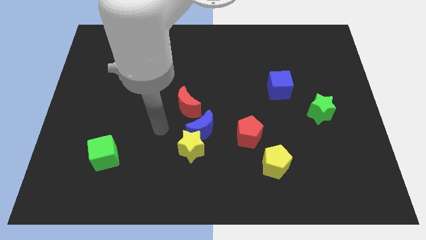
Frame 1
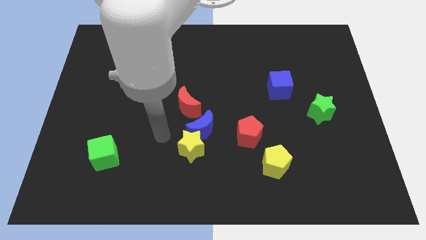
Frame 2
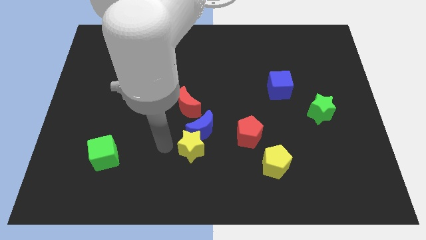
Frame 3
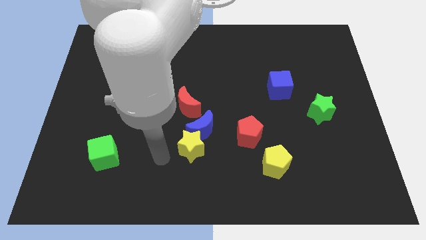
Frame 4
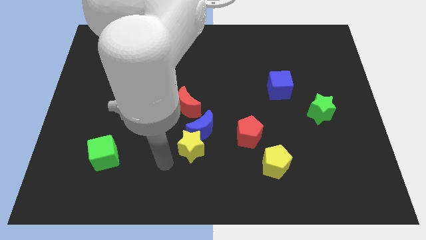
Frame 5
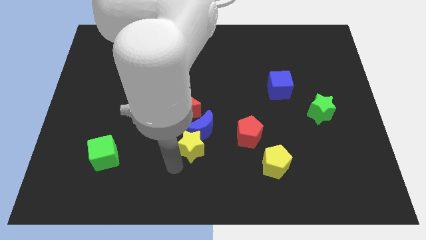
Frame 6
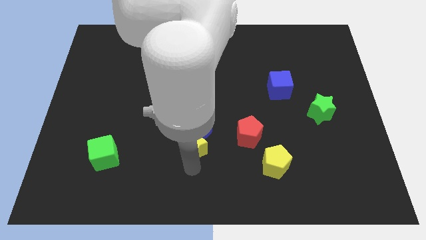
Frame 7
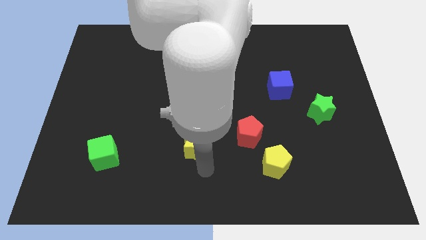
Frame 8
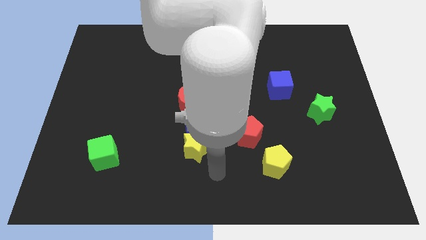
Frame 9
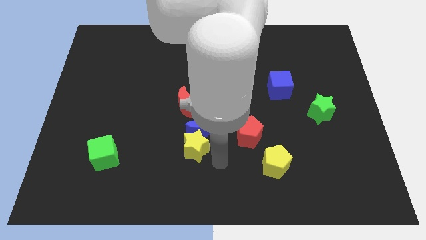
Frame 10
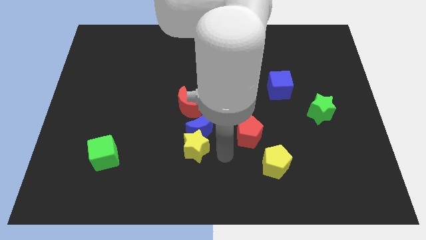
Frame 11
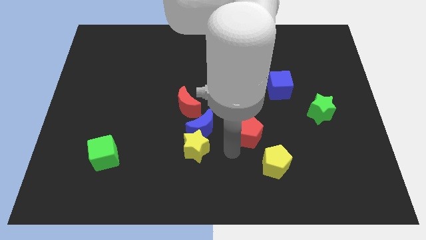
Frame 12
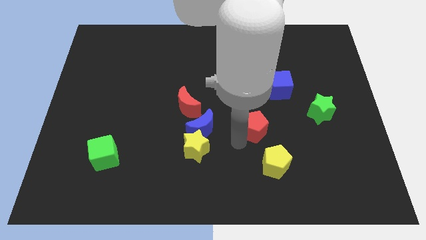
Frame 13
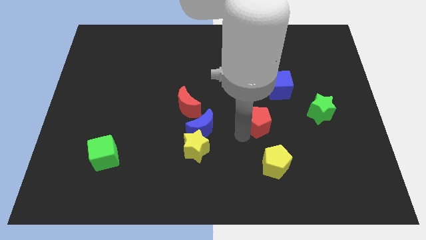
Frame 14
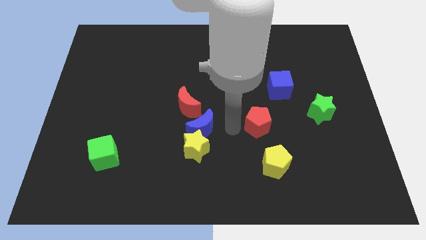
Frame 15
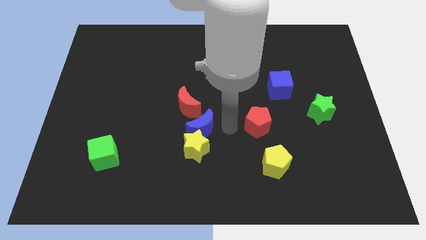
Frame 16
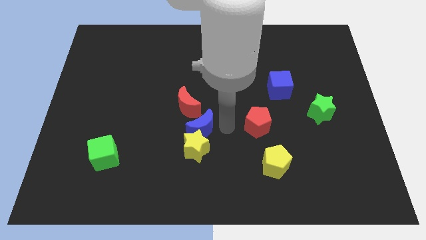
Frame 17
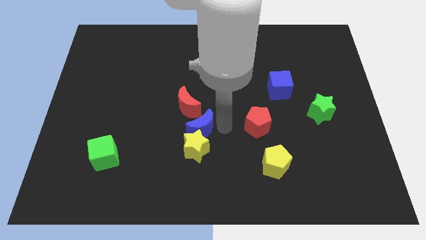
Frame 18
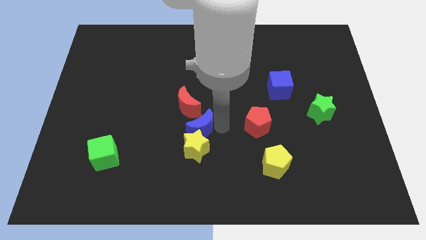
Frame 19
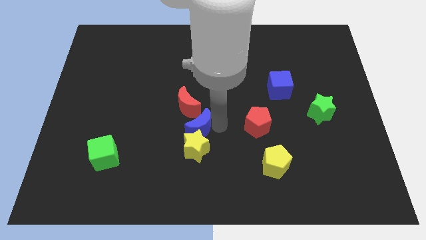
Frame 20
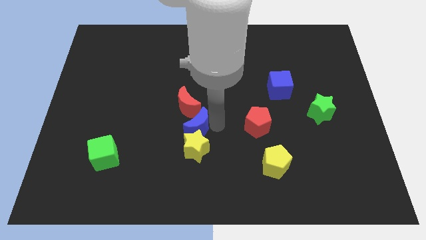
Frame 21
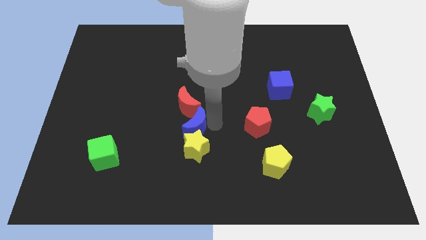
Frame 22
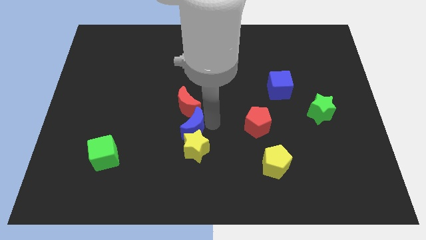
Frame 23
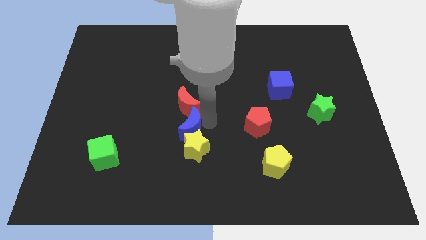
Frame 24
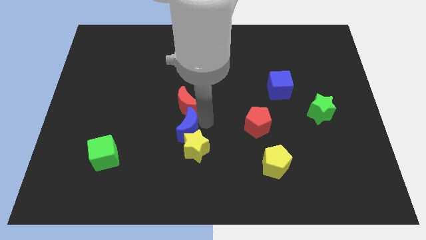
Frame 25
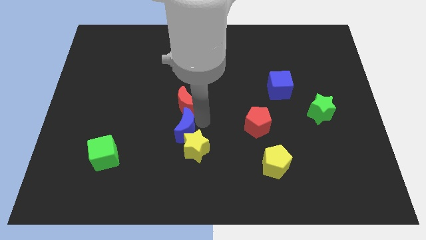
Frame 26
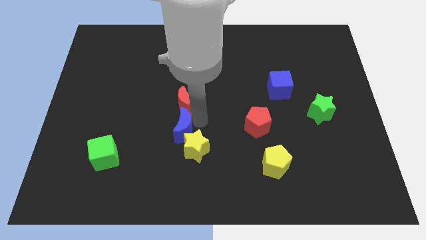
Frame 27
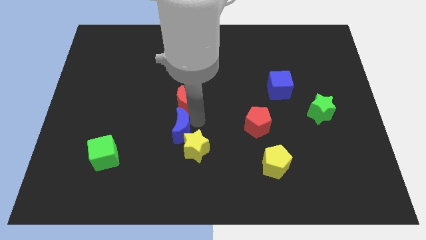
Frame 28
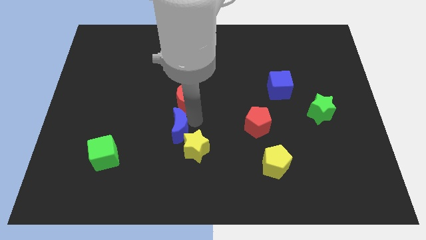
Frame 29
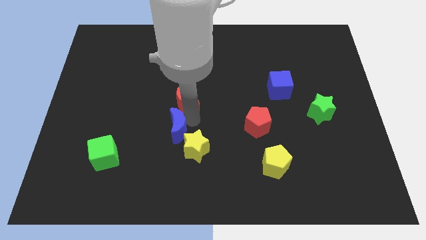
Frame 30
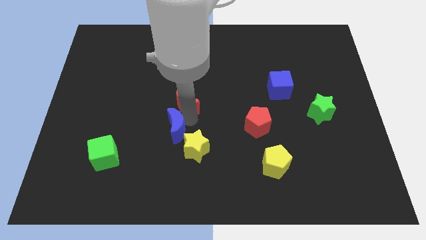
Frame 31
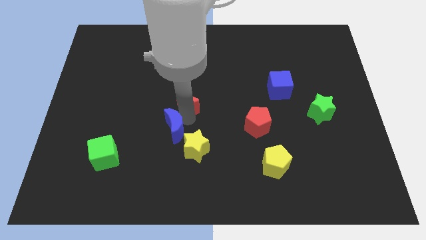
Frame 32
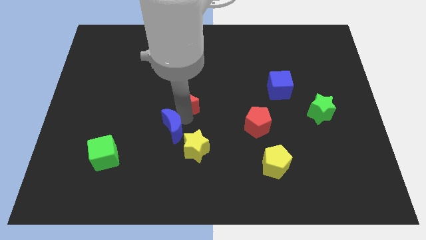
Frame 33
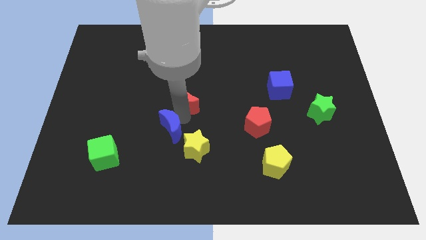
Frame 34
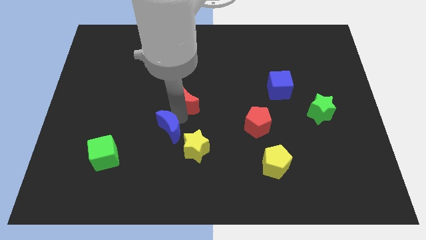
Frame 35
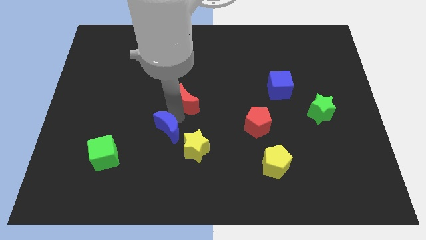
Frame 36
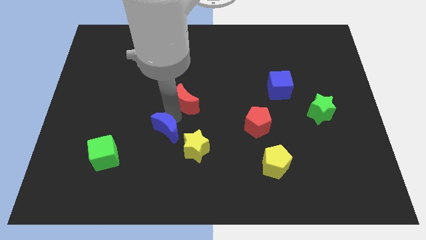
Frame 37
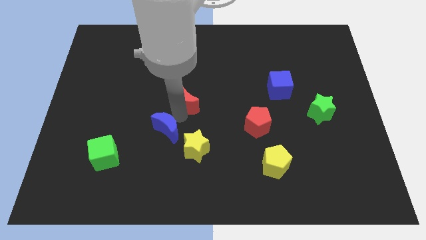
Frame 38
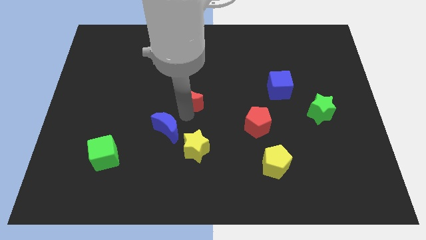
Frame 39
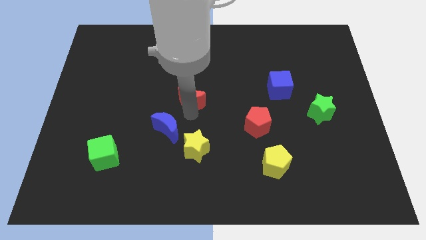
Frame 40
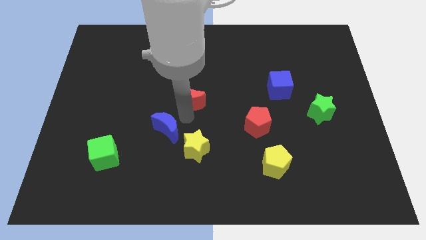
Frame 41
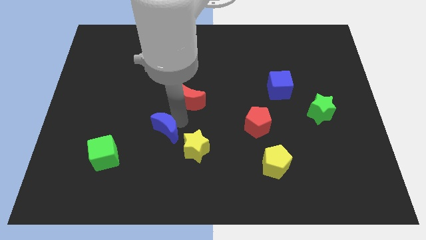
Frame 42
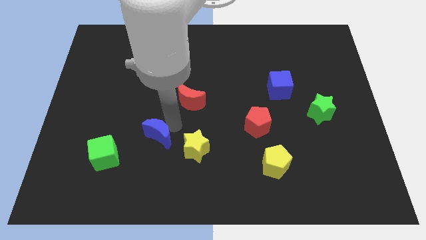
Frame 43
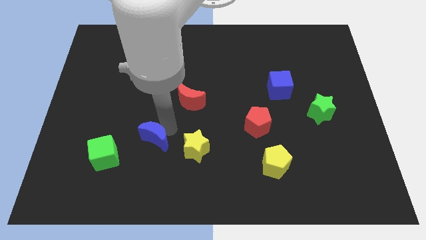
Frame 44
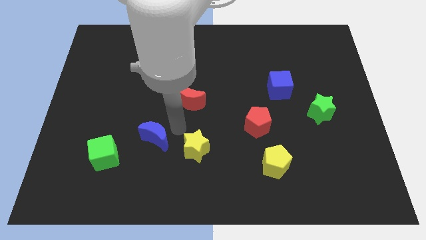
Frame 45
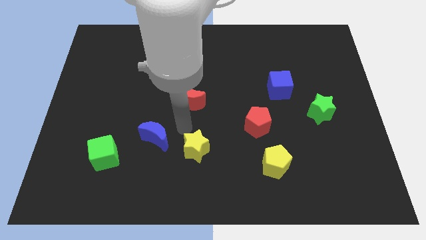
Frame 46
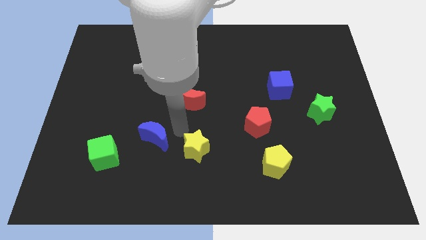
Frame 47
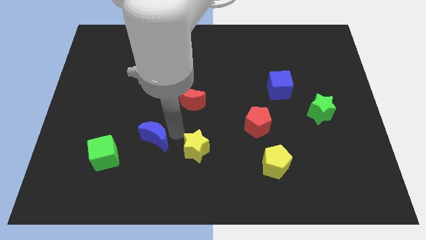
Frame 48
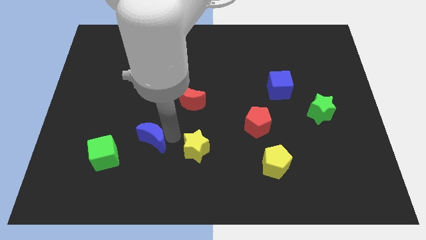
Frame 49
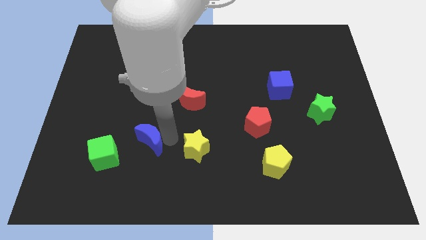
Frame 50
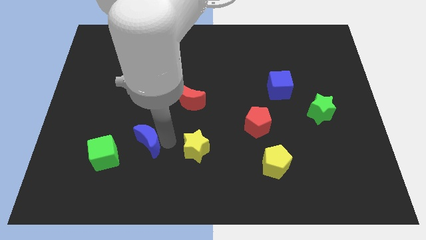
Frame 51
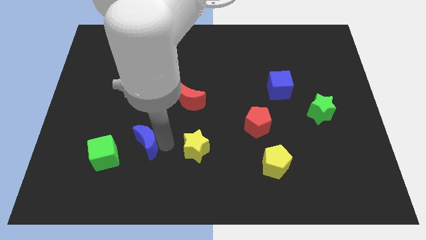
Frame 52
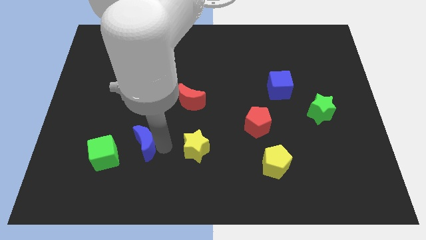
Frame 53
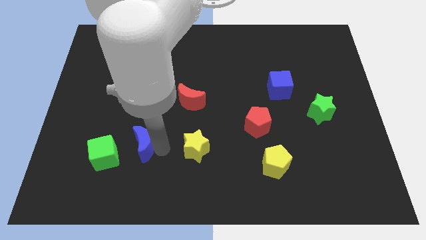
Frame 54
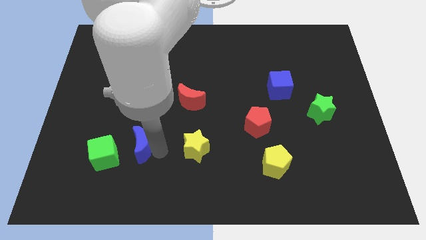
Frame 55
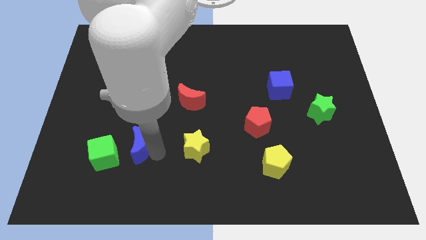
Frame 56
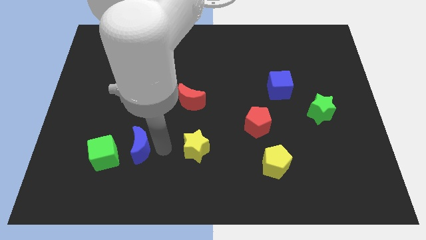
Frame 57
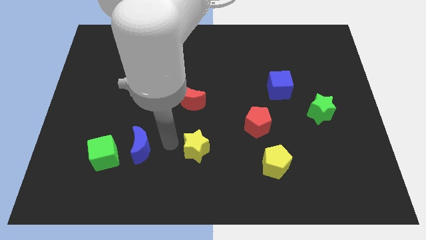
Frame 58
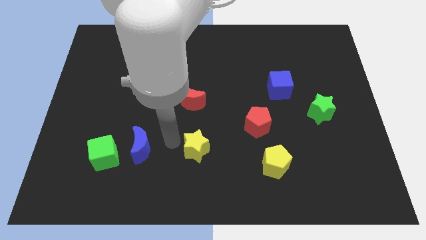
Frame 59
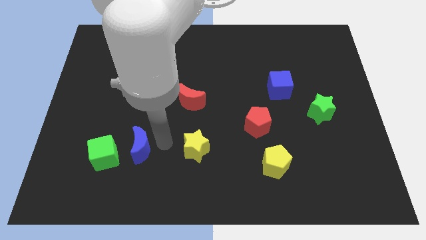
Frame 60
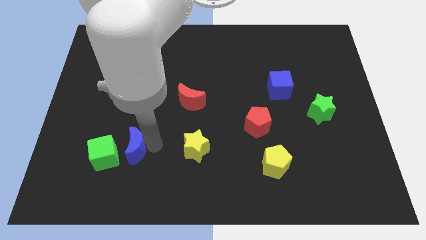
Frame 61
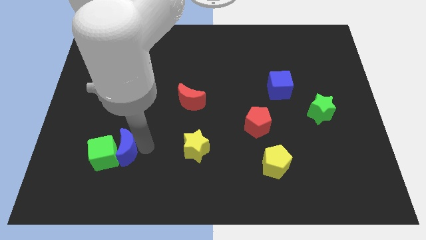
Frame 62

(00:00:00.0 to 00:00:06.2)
put the blue moon next to the green cube

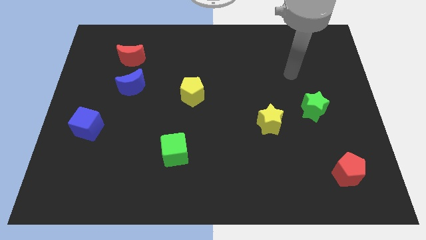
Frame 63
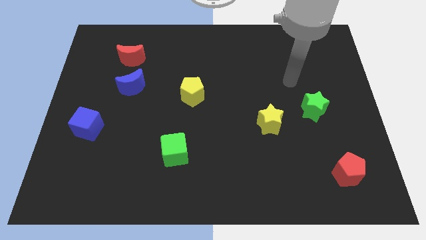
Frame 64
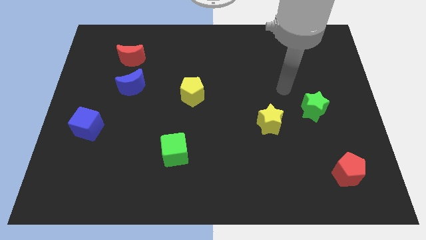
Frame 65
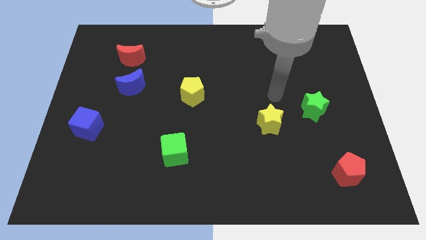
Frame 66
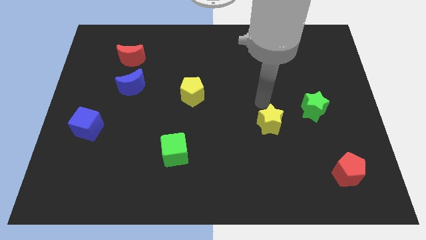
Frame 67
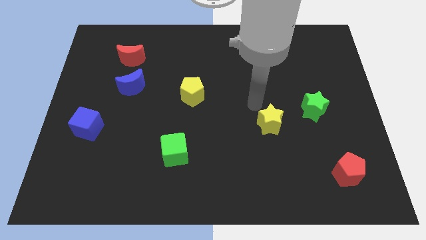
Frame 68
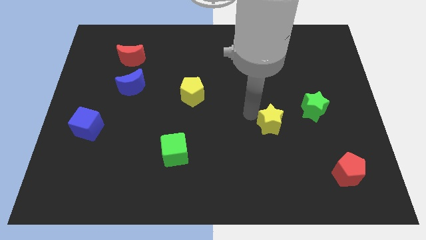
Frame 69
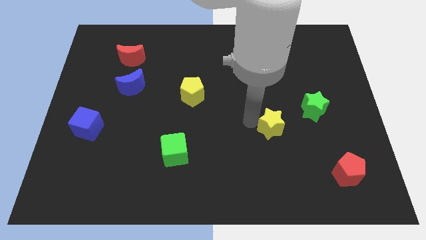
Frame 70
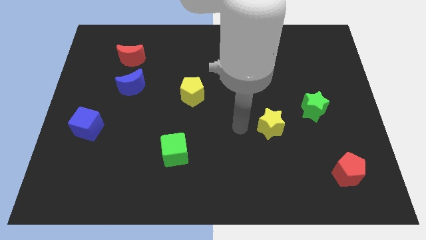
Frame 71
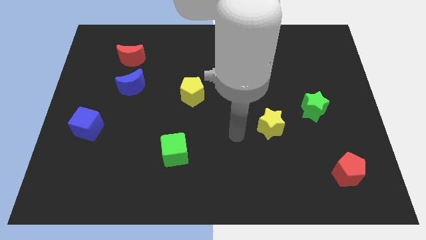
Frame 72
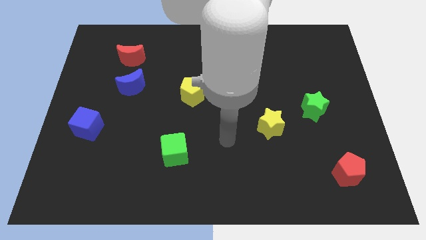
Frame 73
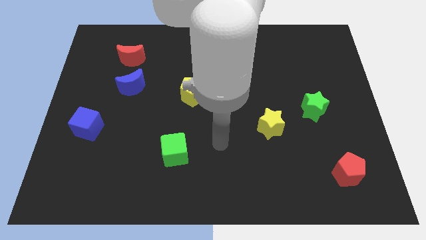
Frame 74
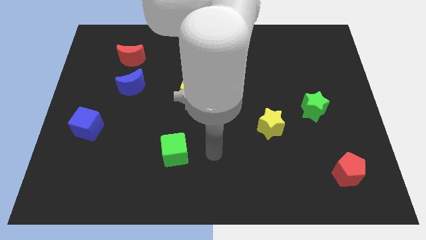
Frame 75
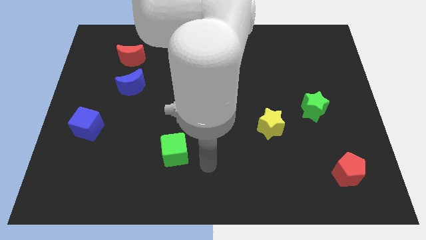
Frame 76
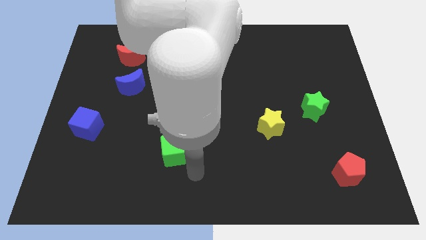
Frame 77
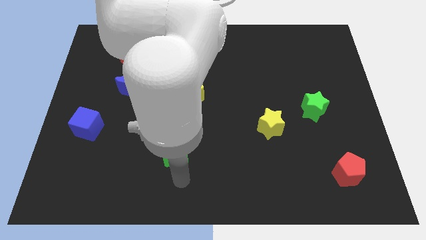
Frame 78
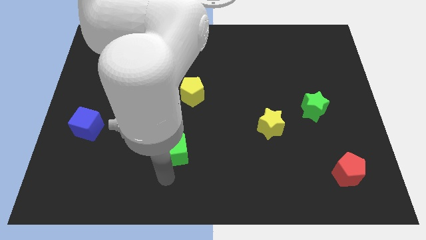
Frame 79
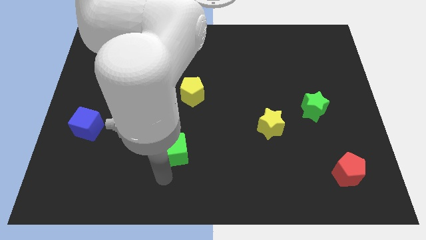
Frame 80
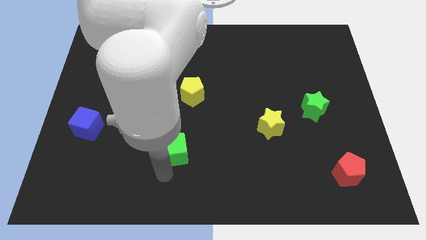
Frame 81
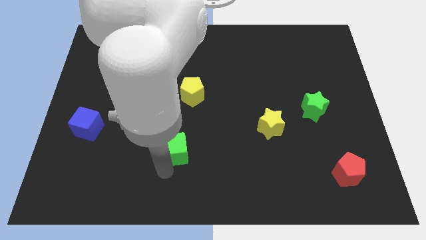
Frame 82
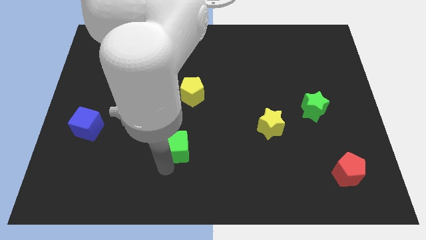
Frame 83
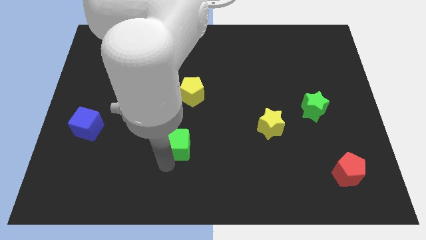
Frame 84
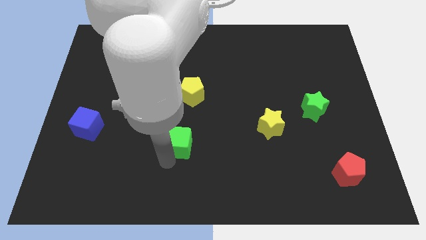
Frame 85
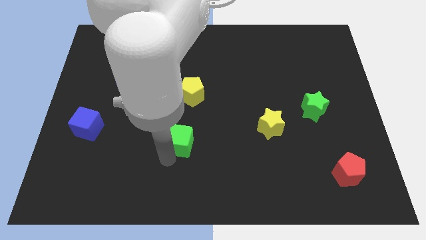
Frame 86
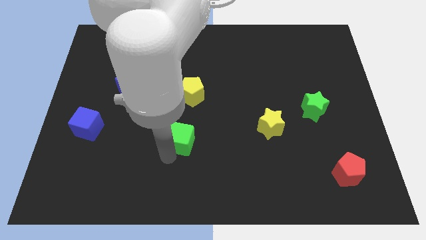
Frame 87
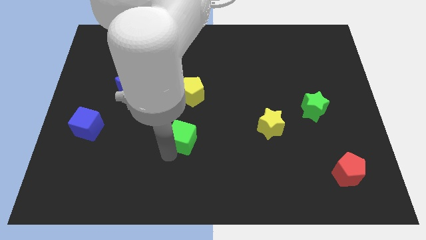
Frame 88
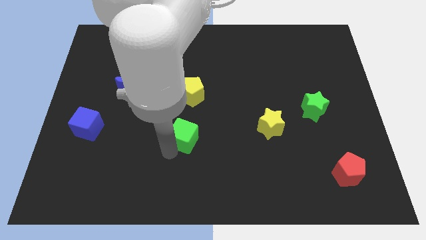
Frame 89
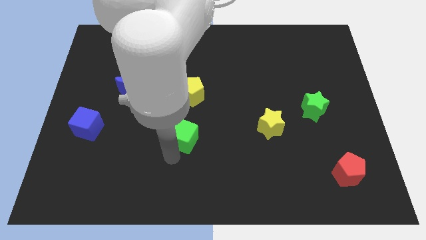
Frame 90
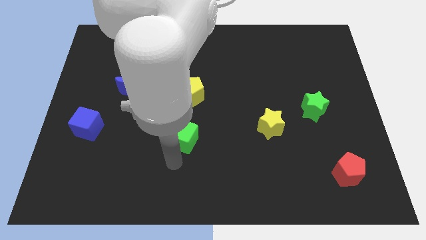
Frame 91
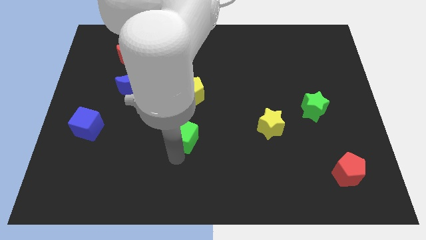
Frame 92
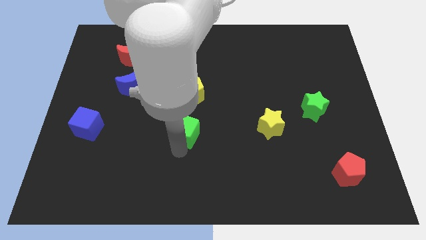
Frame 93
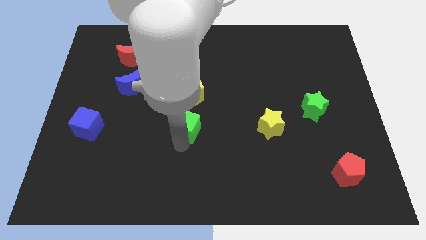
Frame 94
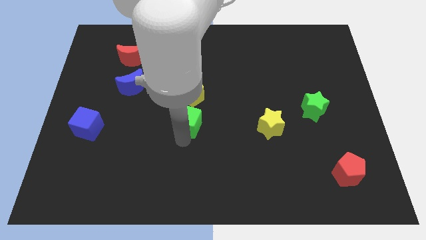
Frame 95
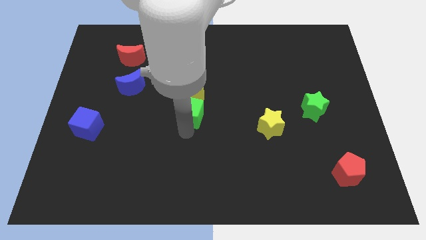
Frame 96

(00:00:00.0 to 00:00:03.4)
slide the green cube towards the yellow pentagon
